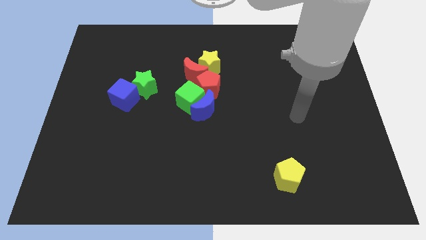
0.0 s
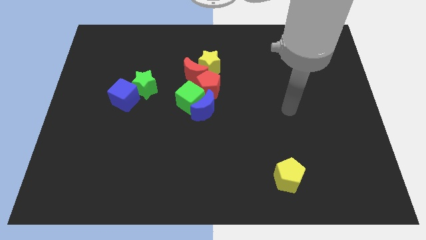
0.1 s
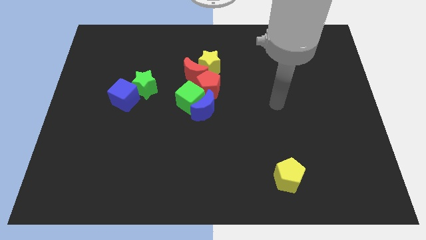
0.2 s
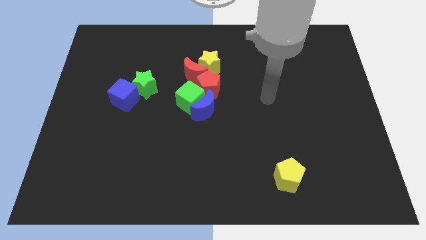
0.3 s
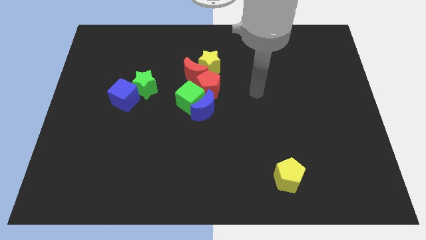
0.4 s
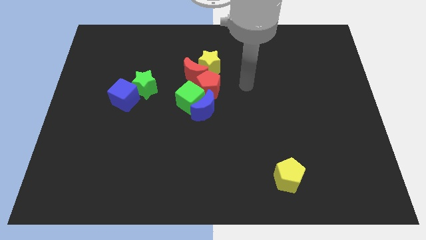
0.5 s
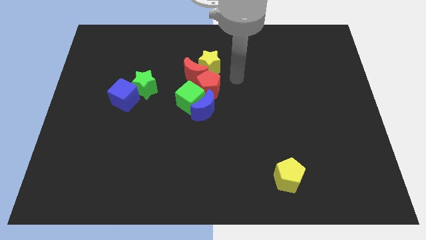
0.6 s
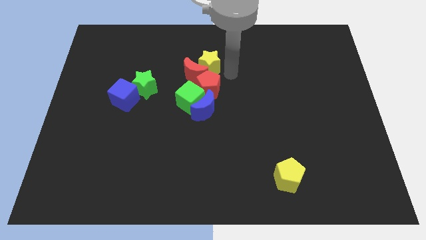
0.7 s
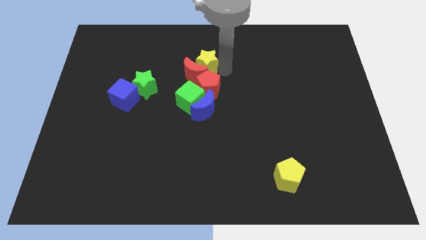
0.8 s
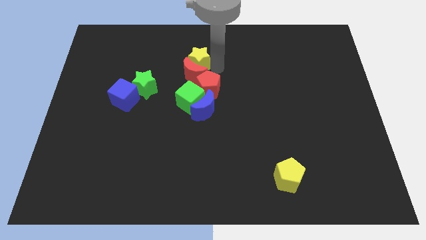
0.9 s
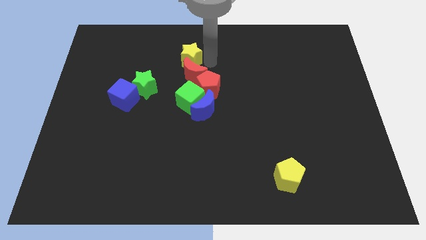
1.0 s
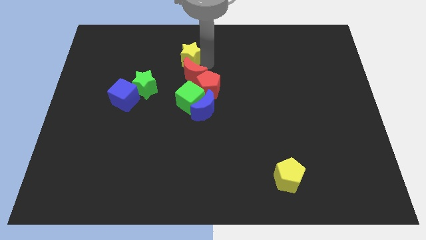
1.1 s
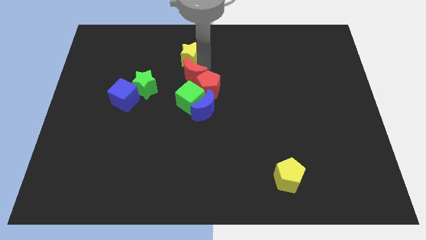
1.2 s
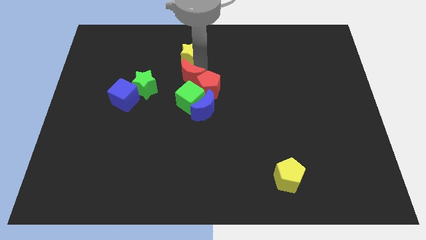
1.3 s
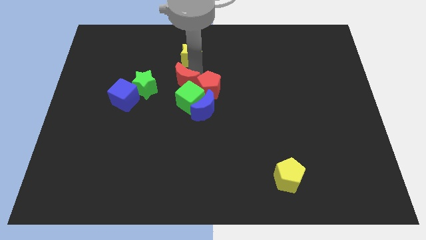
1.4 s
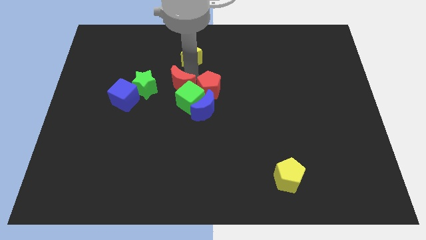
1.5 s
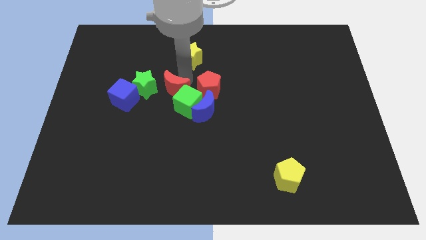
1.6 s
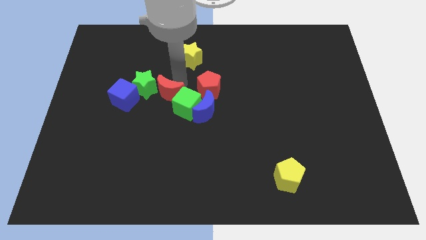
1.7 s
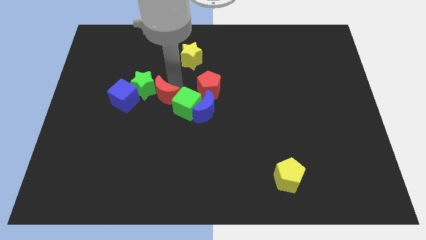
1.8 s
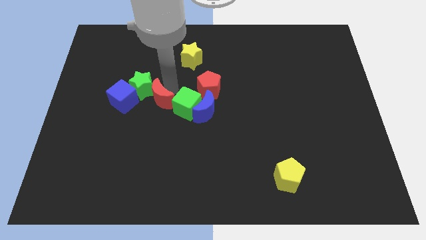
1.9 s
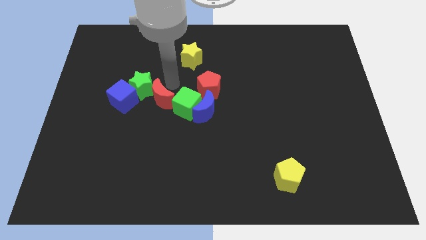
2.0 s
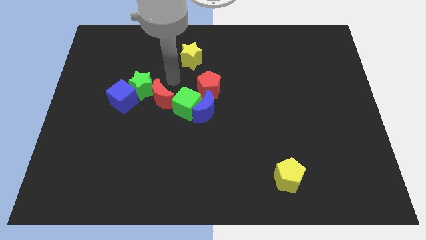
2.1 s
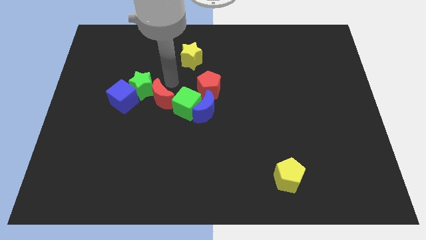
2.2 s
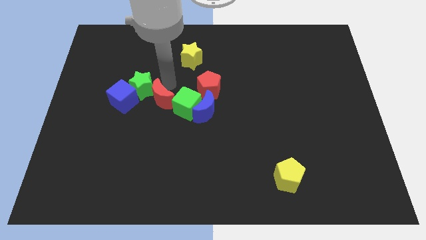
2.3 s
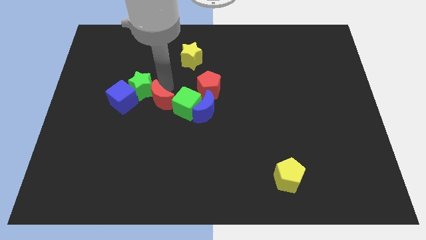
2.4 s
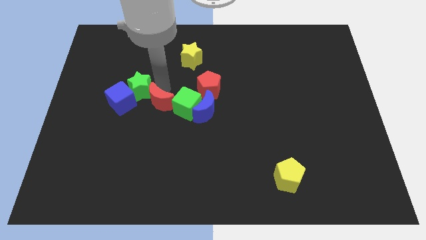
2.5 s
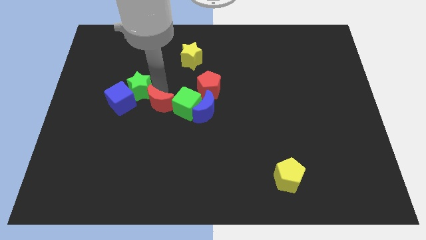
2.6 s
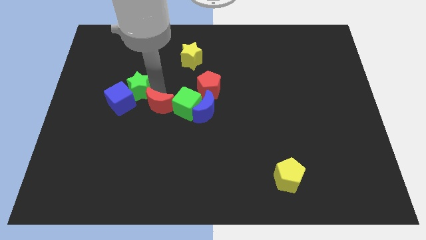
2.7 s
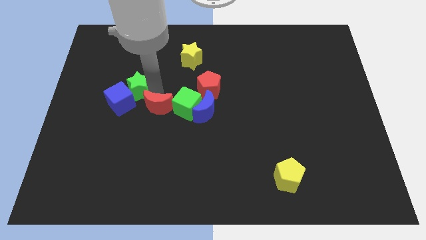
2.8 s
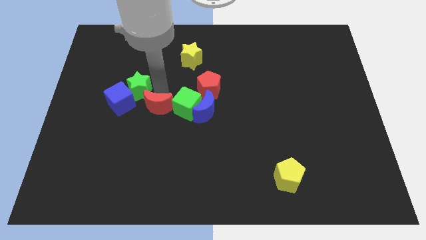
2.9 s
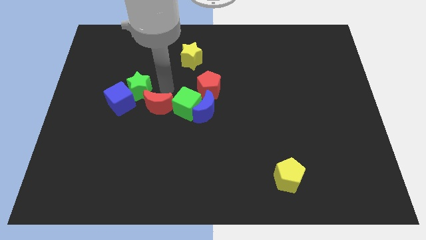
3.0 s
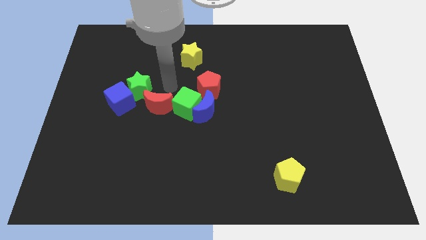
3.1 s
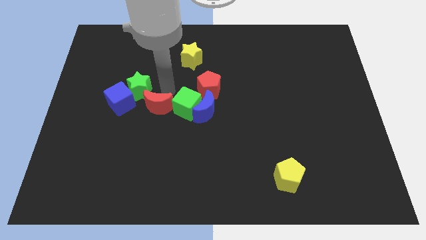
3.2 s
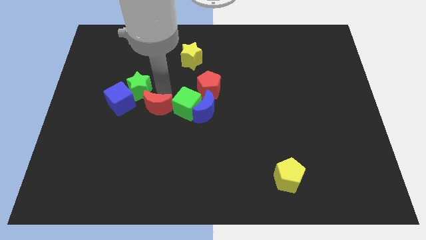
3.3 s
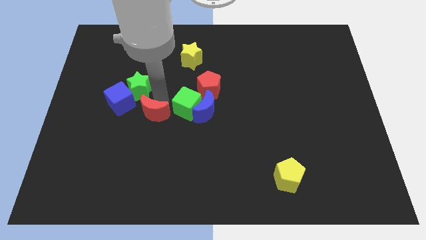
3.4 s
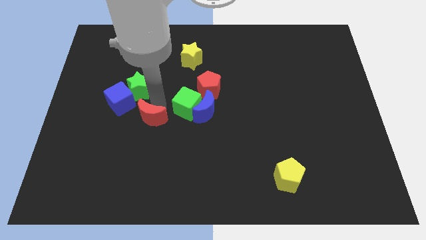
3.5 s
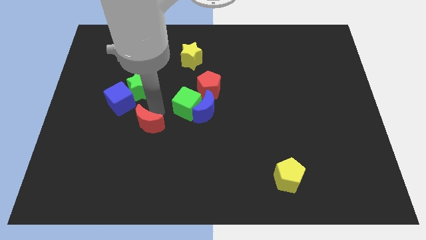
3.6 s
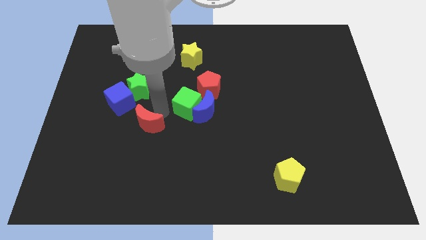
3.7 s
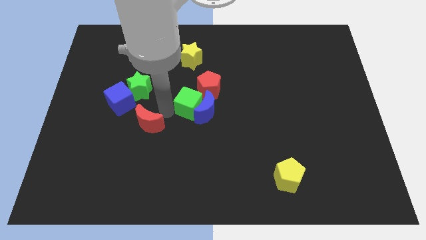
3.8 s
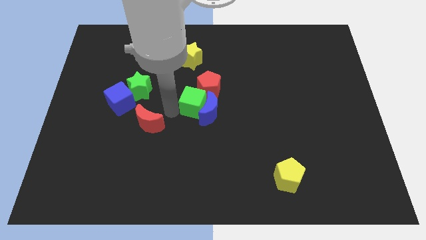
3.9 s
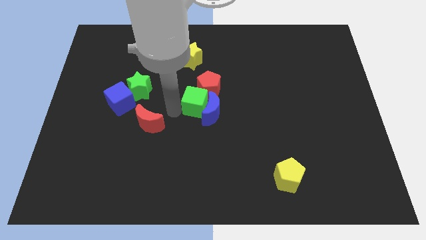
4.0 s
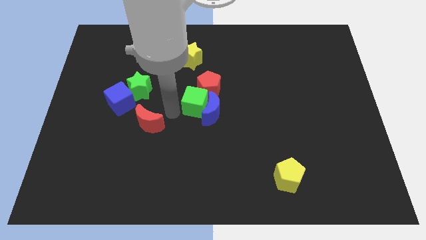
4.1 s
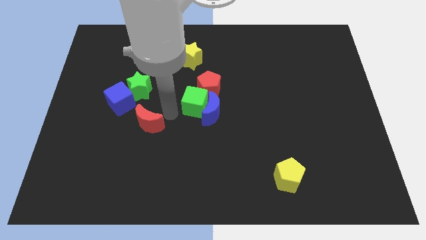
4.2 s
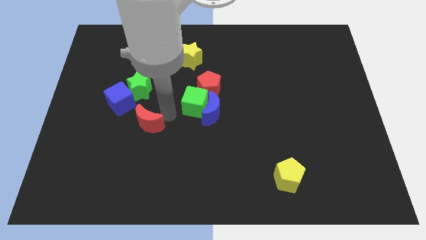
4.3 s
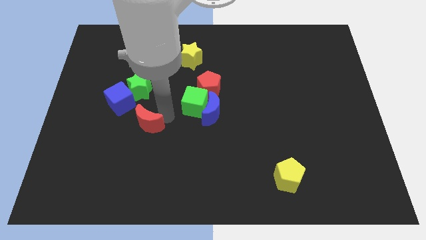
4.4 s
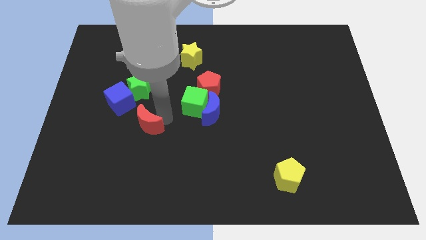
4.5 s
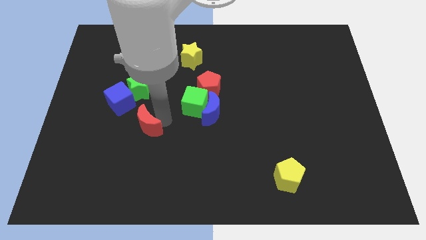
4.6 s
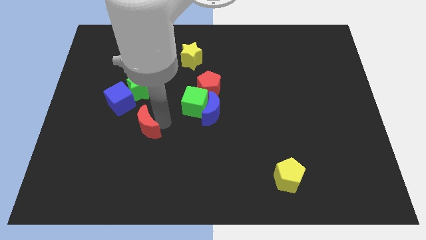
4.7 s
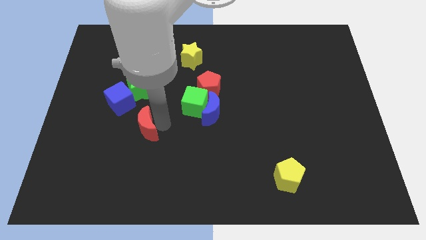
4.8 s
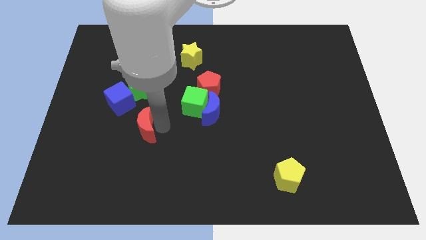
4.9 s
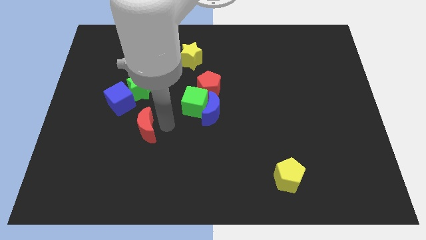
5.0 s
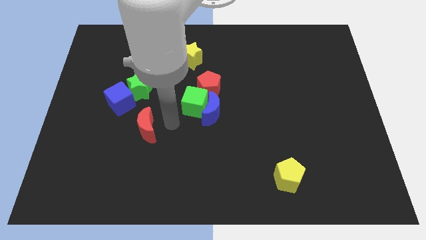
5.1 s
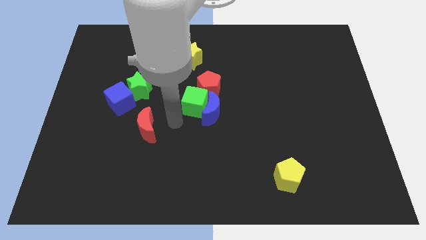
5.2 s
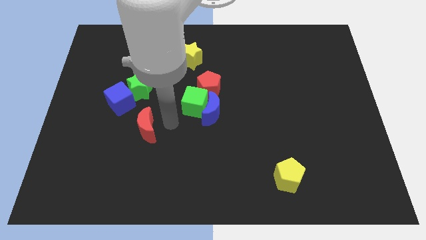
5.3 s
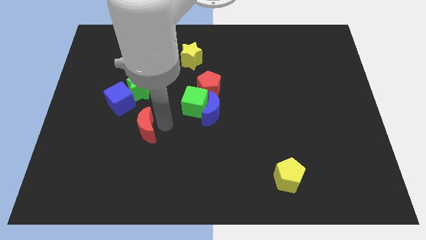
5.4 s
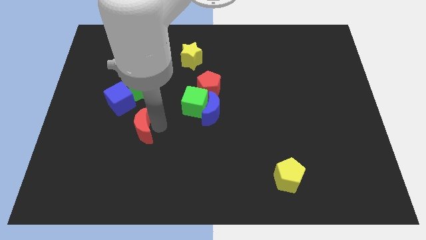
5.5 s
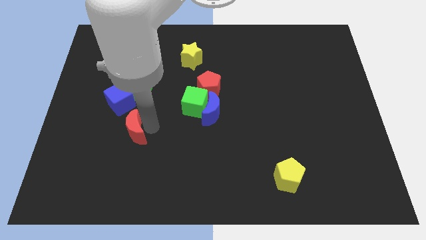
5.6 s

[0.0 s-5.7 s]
move the red moon diagonally down and left

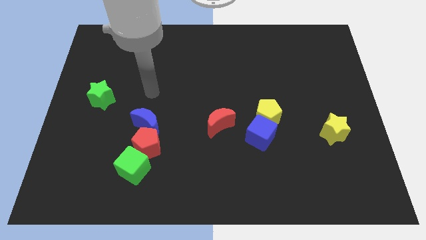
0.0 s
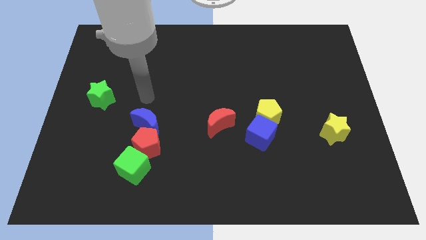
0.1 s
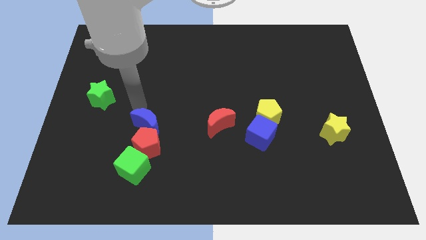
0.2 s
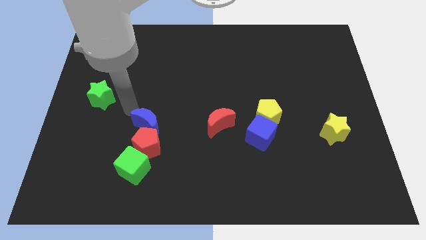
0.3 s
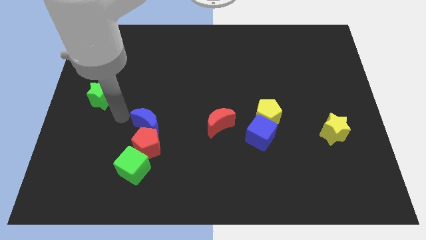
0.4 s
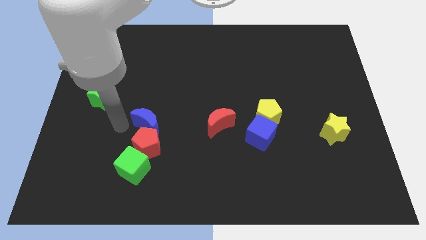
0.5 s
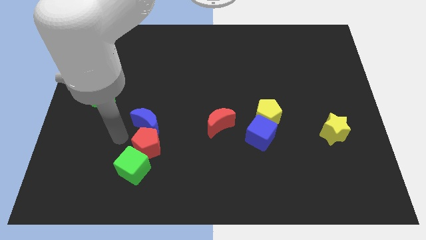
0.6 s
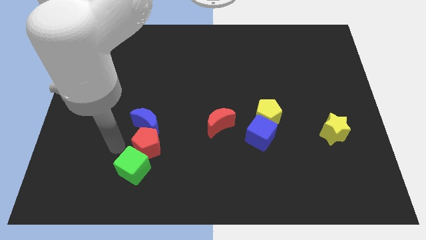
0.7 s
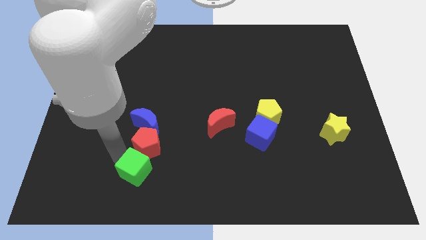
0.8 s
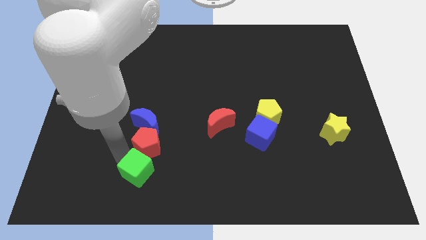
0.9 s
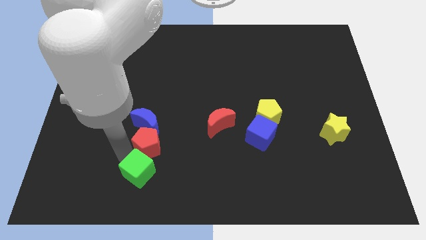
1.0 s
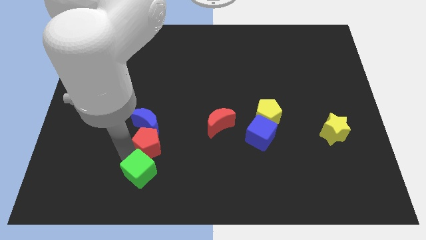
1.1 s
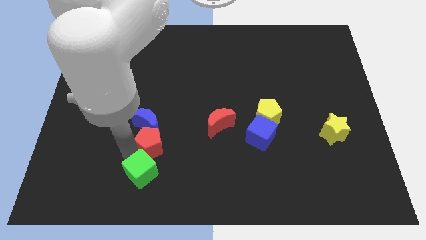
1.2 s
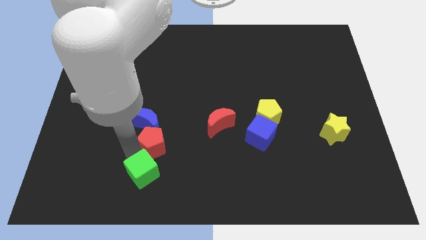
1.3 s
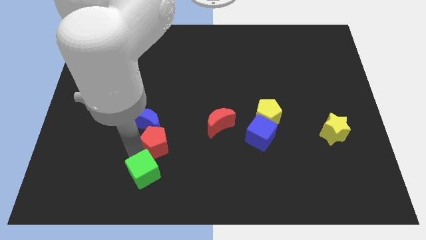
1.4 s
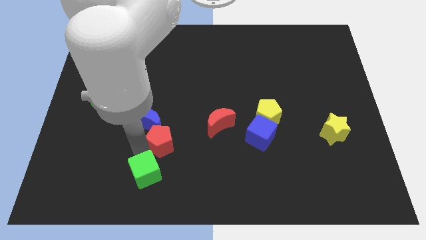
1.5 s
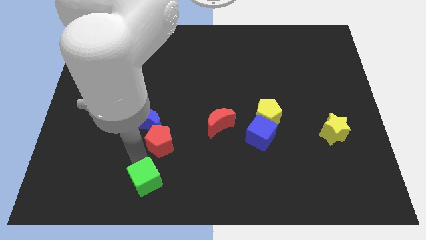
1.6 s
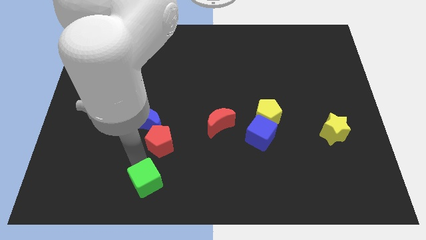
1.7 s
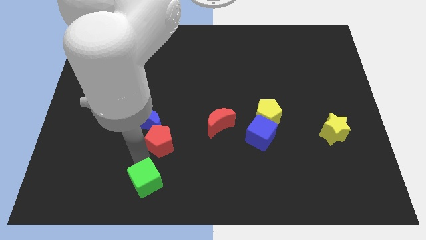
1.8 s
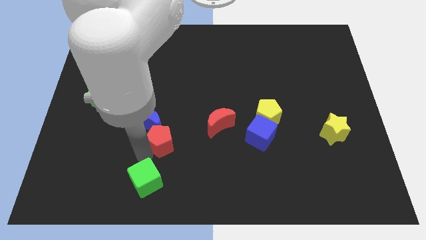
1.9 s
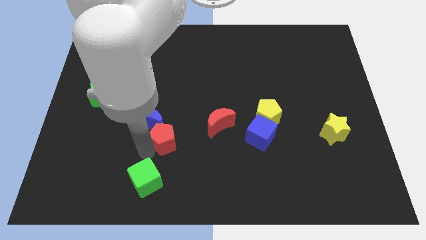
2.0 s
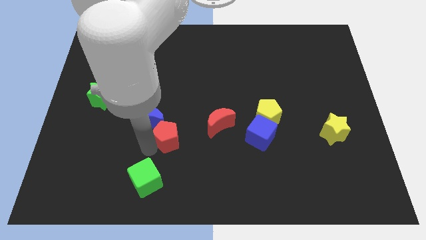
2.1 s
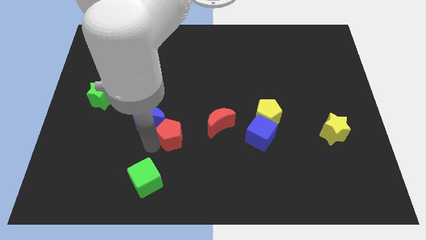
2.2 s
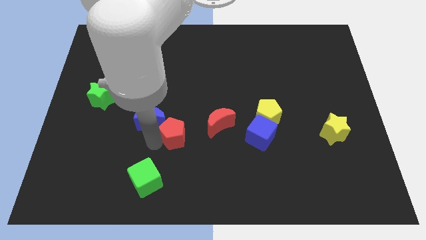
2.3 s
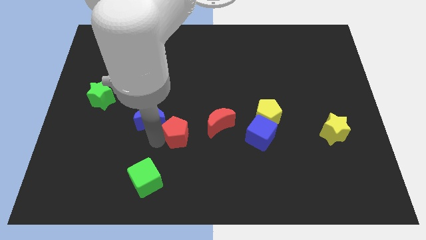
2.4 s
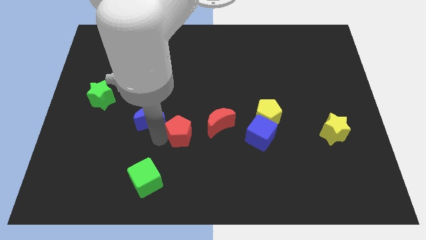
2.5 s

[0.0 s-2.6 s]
slightly move the red pentagon upwards and to the right

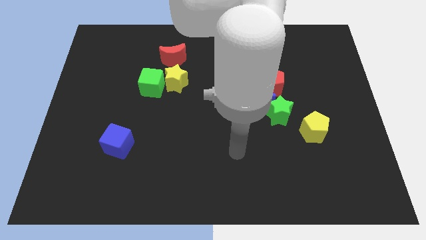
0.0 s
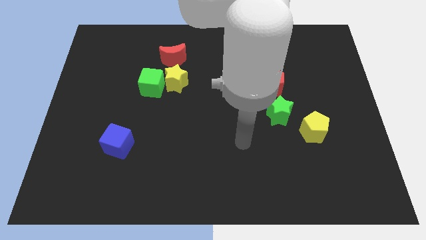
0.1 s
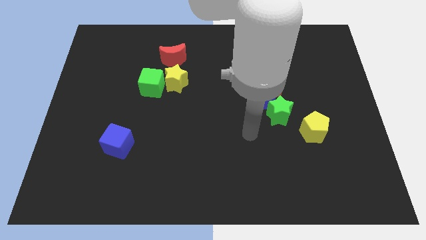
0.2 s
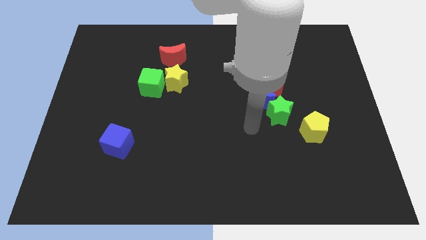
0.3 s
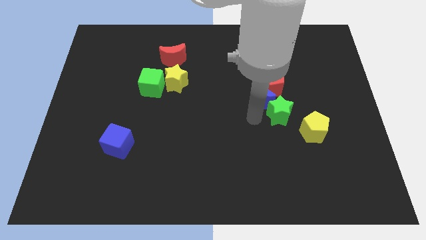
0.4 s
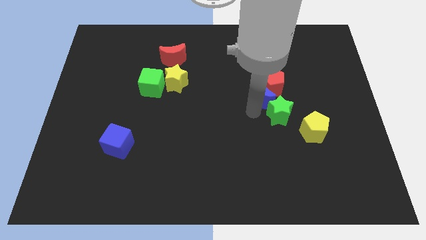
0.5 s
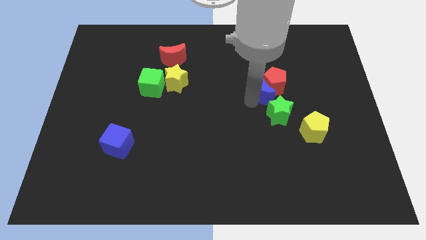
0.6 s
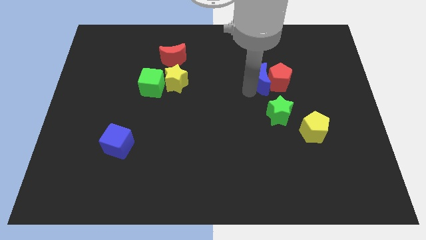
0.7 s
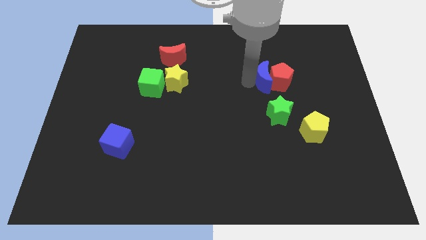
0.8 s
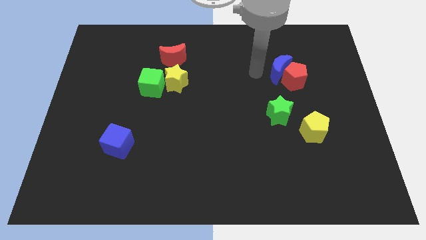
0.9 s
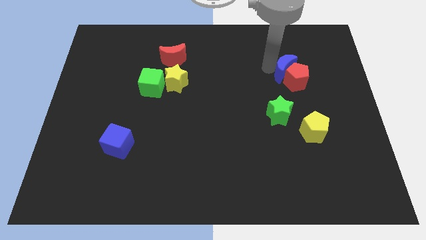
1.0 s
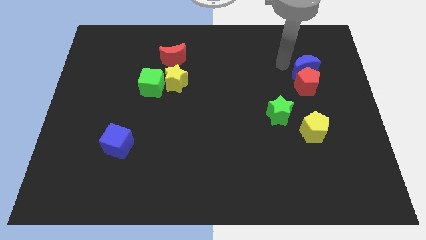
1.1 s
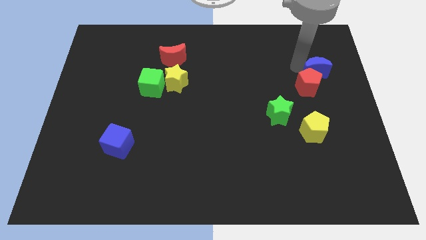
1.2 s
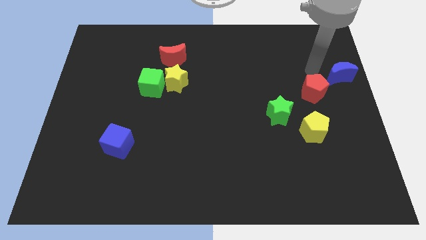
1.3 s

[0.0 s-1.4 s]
push the red pentagon diagonally downwards and to the right slightly
